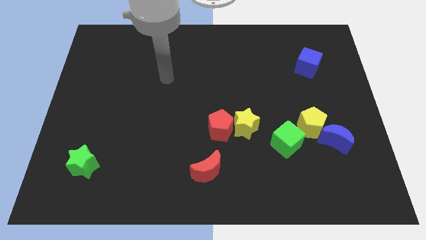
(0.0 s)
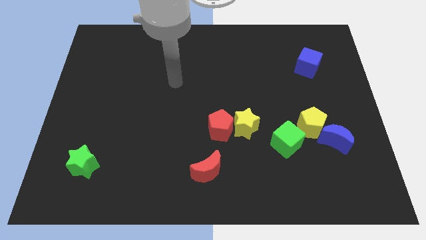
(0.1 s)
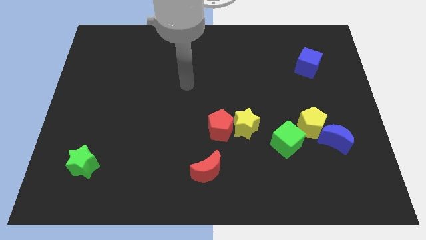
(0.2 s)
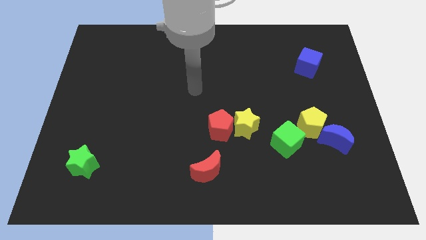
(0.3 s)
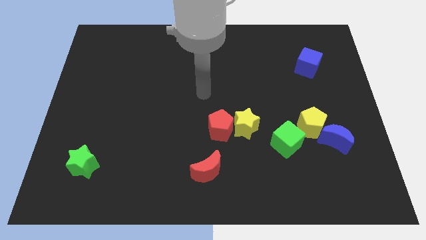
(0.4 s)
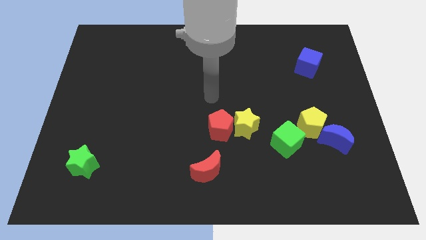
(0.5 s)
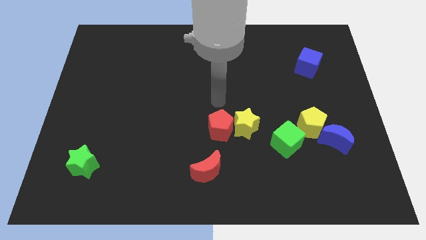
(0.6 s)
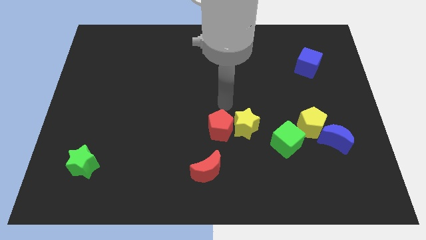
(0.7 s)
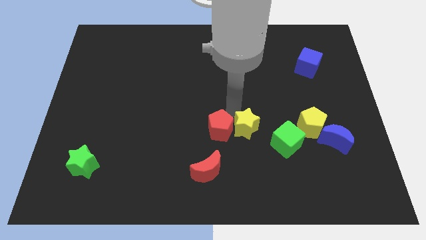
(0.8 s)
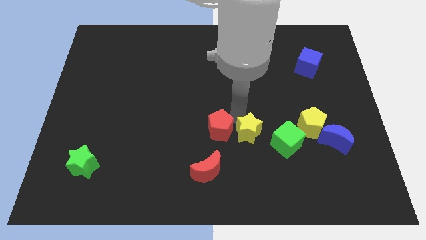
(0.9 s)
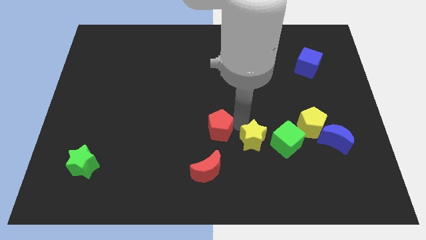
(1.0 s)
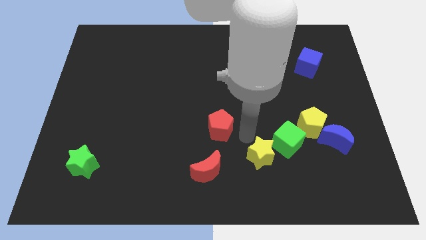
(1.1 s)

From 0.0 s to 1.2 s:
pull the red pentagon apart from the yellow star

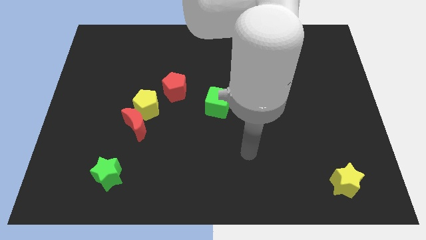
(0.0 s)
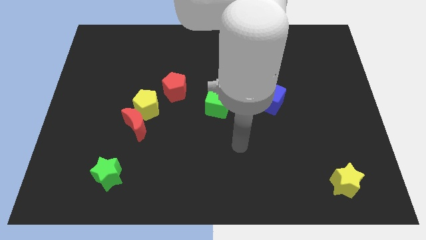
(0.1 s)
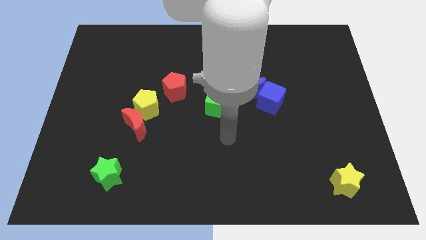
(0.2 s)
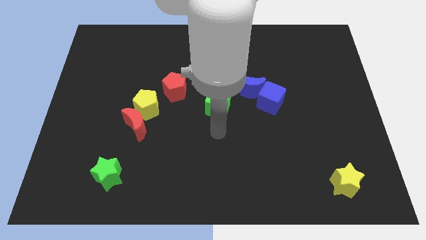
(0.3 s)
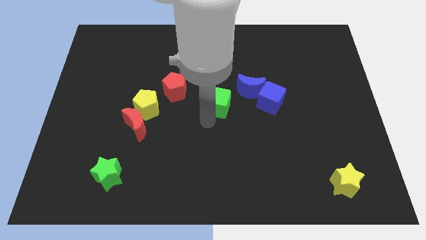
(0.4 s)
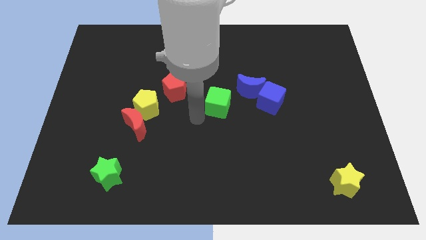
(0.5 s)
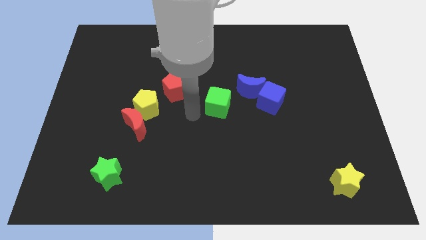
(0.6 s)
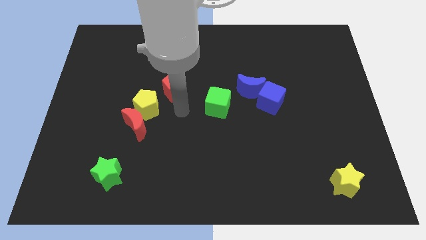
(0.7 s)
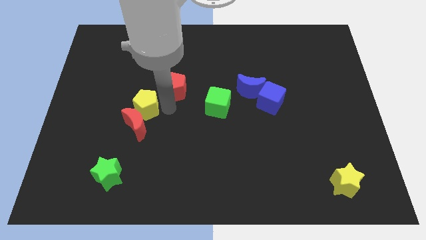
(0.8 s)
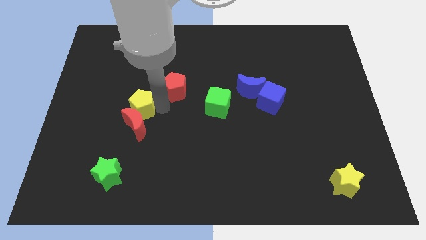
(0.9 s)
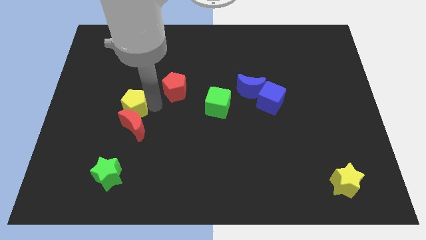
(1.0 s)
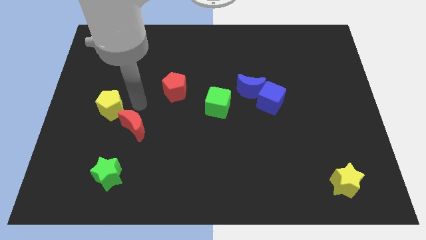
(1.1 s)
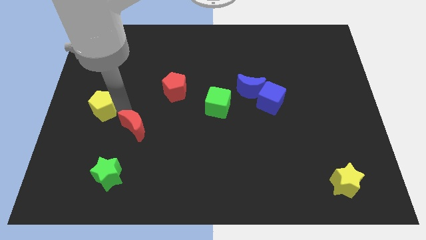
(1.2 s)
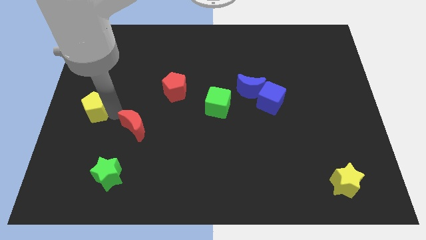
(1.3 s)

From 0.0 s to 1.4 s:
move the red moon away from the yellow pentagon

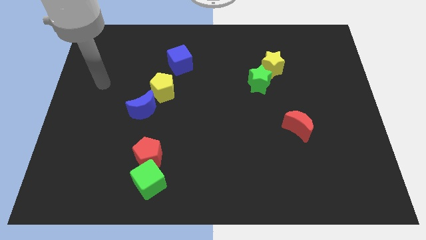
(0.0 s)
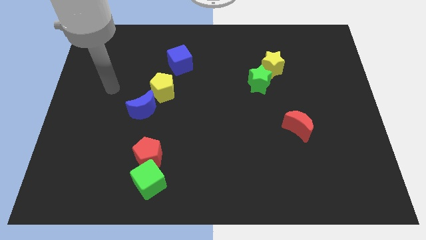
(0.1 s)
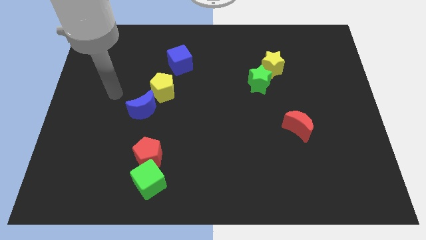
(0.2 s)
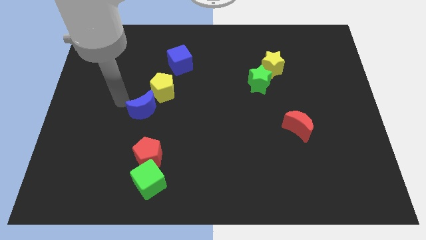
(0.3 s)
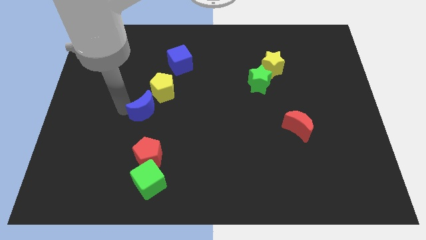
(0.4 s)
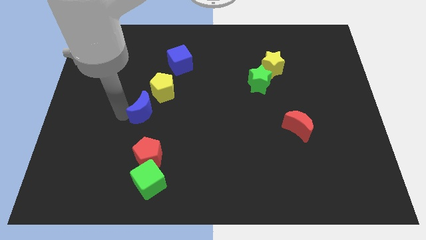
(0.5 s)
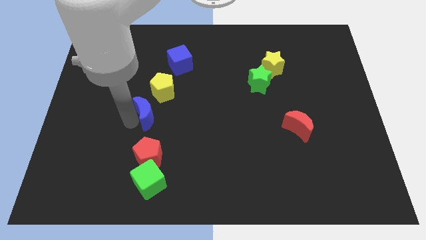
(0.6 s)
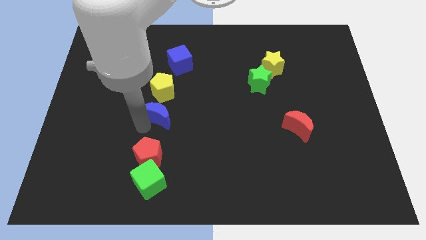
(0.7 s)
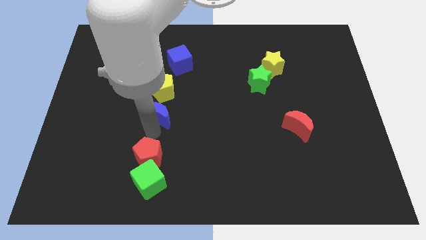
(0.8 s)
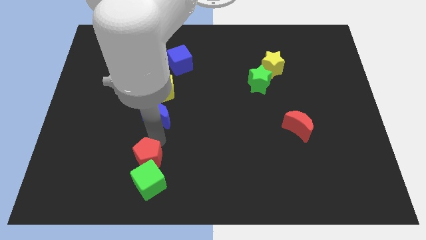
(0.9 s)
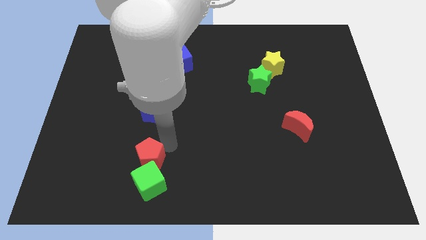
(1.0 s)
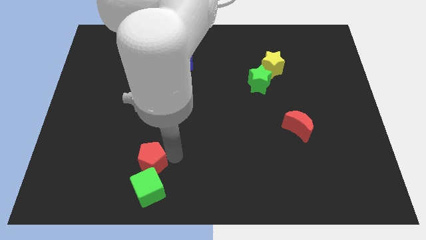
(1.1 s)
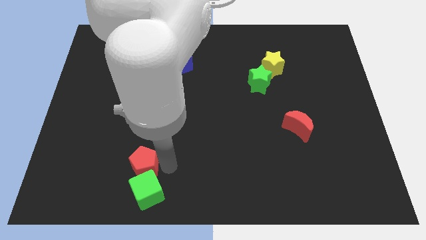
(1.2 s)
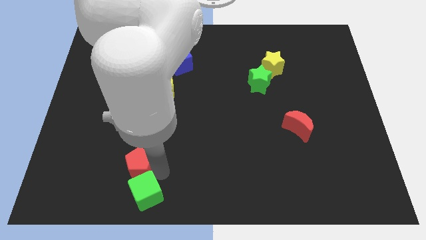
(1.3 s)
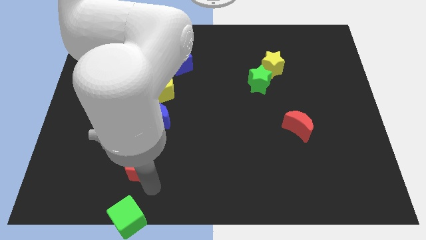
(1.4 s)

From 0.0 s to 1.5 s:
move the red pentagon away from the green cube

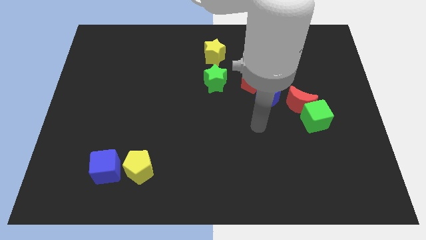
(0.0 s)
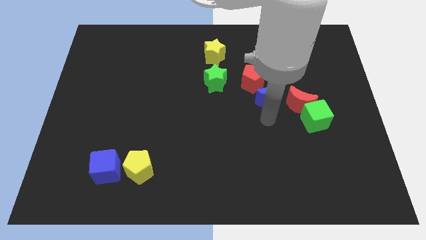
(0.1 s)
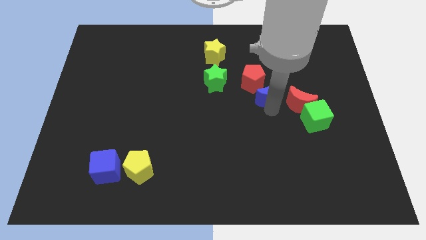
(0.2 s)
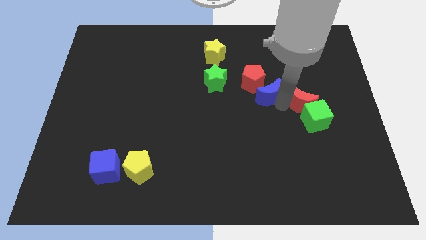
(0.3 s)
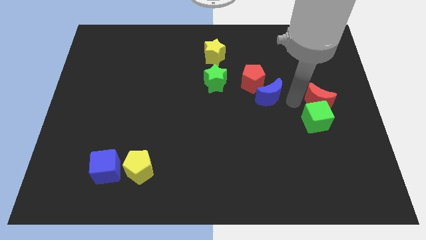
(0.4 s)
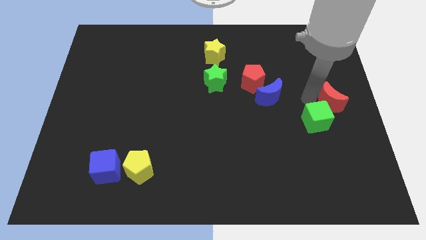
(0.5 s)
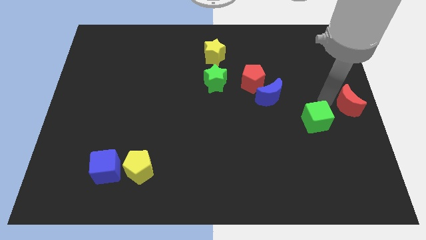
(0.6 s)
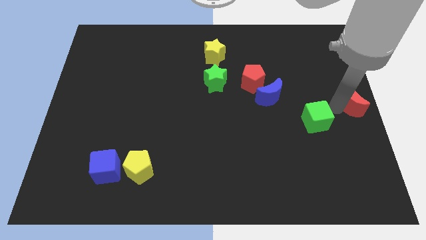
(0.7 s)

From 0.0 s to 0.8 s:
pull the green cube apart from the red moon

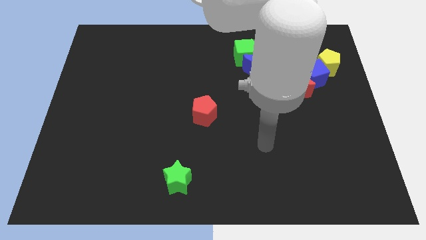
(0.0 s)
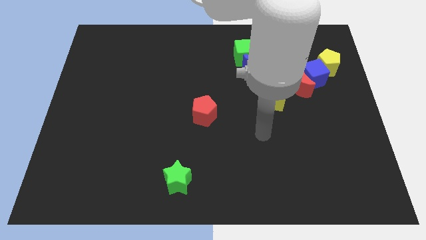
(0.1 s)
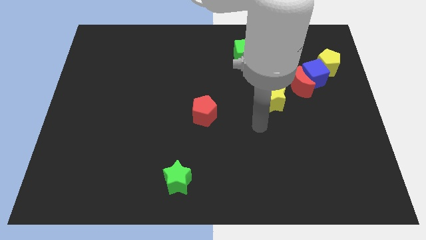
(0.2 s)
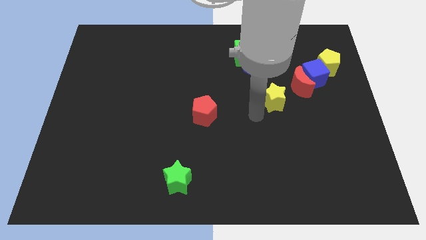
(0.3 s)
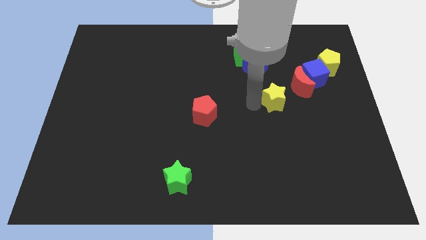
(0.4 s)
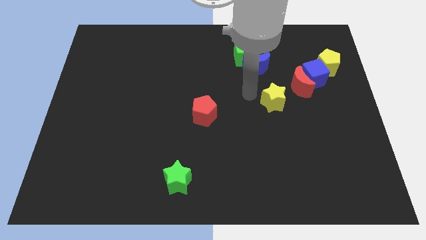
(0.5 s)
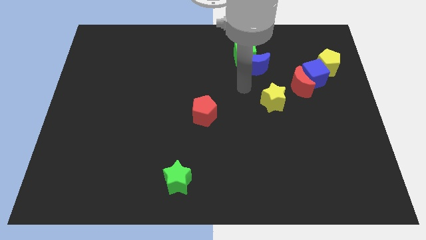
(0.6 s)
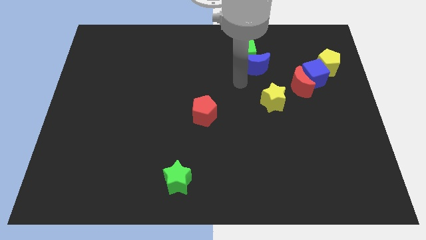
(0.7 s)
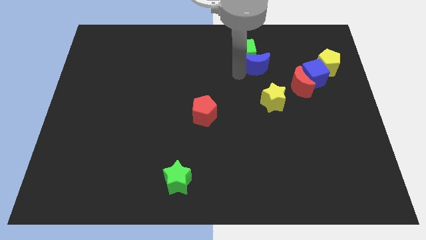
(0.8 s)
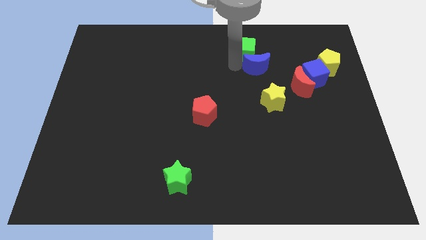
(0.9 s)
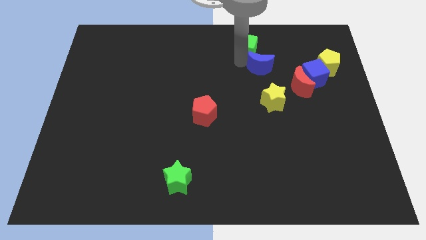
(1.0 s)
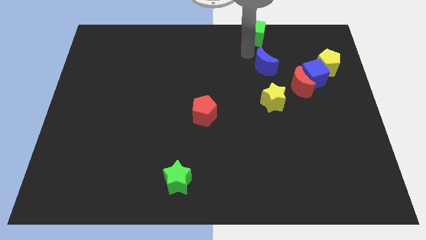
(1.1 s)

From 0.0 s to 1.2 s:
separate the blue moon from the green cube

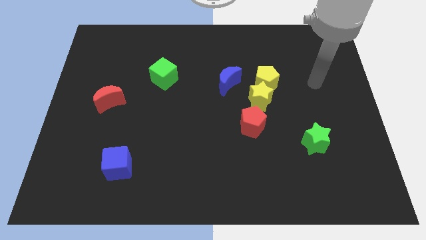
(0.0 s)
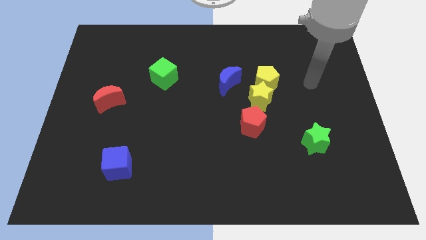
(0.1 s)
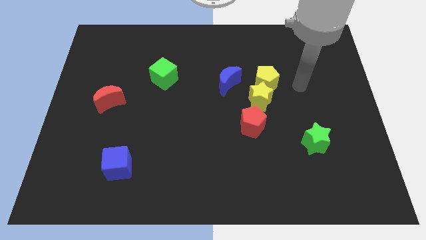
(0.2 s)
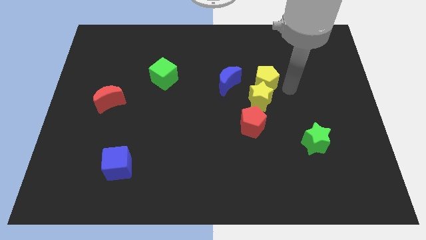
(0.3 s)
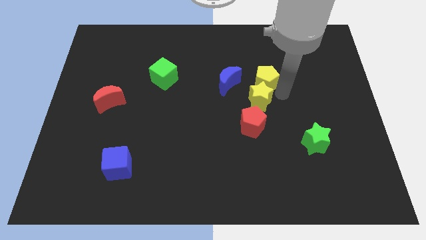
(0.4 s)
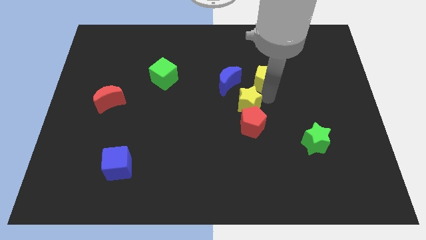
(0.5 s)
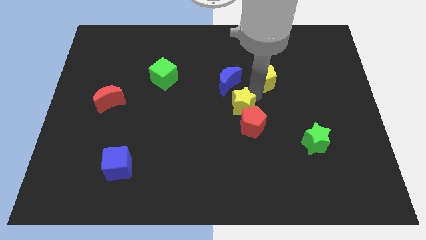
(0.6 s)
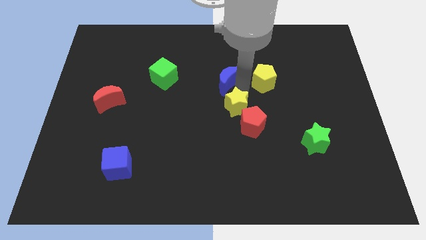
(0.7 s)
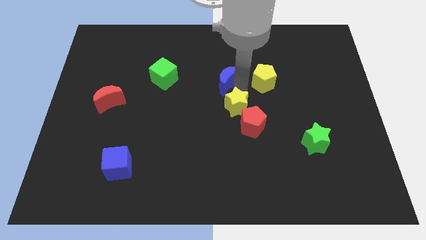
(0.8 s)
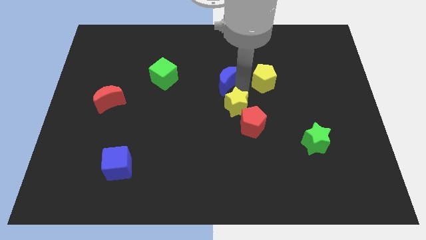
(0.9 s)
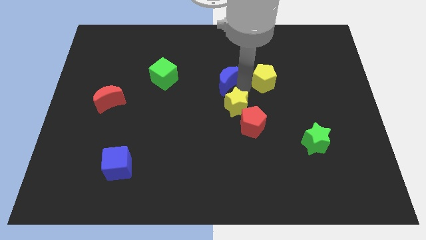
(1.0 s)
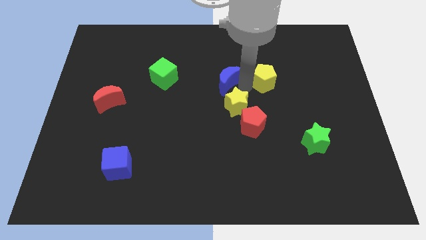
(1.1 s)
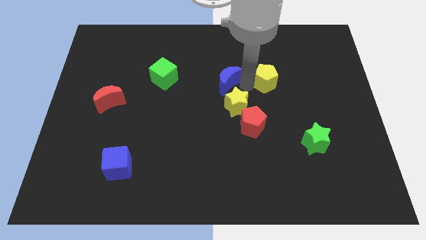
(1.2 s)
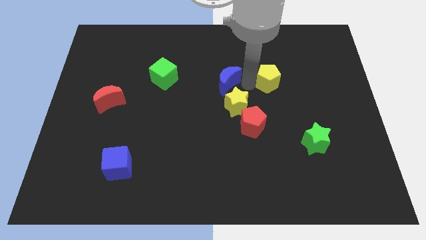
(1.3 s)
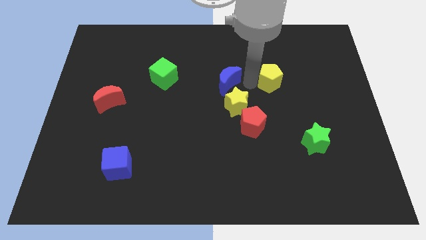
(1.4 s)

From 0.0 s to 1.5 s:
pull the yellow pentagon apart from the yellow star and blue moon

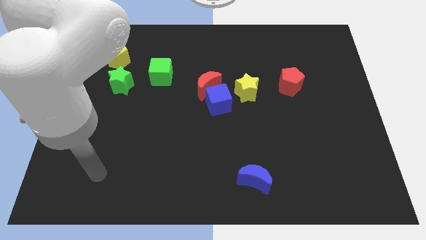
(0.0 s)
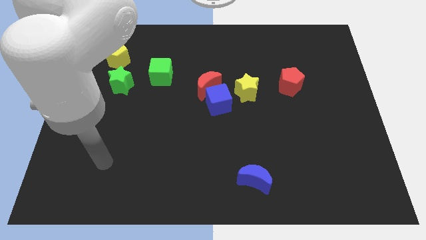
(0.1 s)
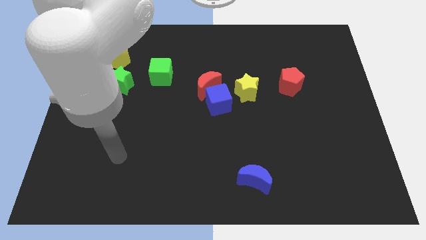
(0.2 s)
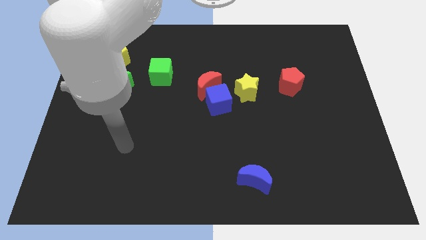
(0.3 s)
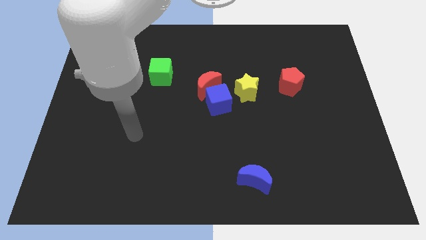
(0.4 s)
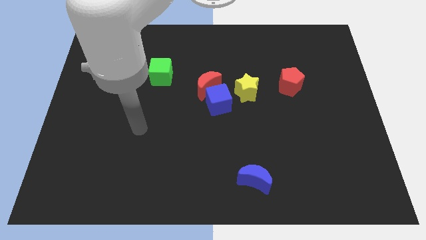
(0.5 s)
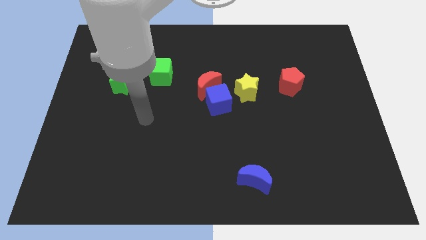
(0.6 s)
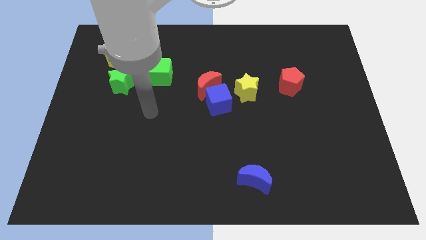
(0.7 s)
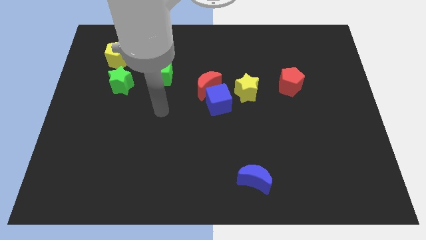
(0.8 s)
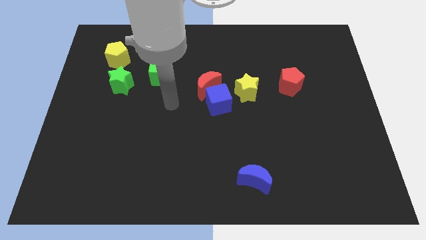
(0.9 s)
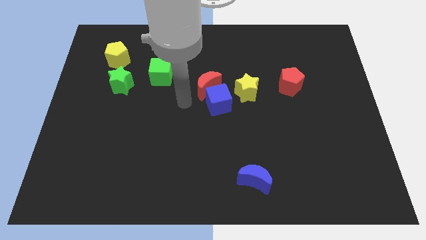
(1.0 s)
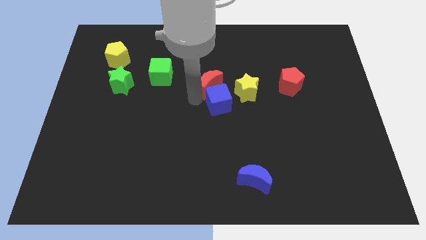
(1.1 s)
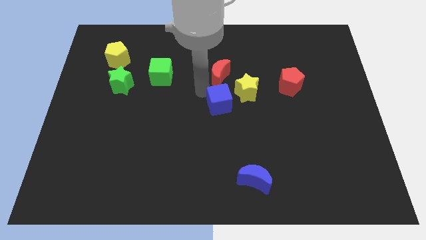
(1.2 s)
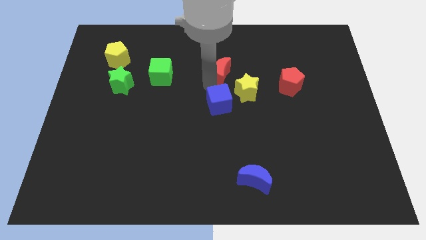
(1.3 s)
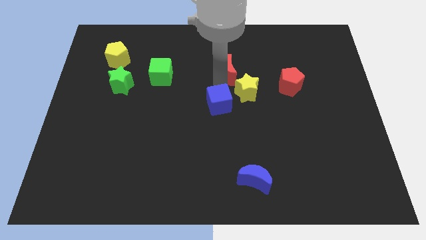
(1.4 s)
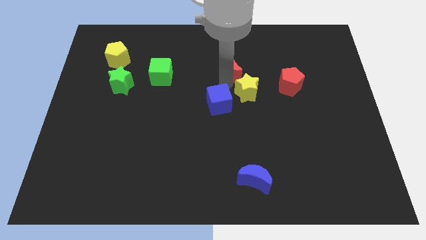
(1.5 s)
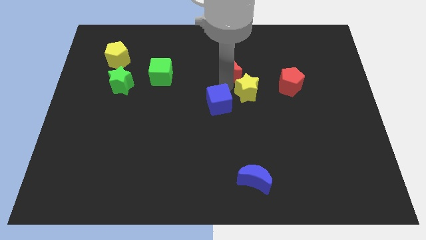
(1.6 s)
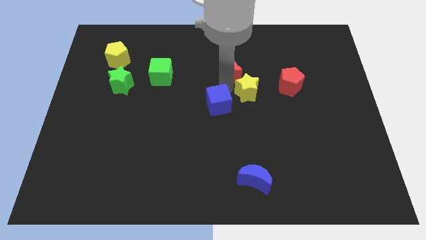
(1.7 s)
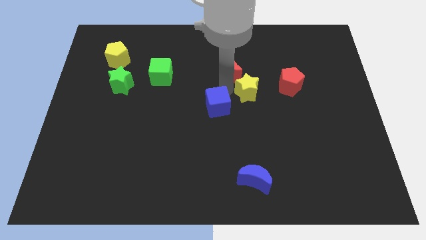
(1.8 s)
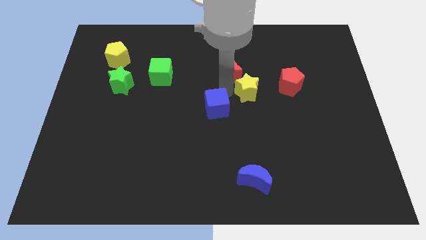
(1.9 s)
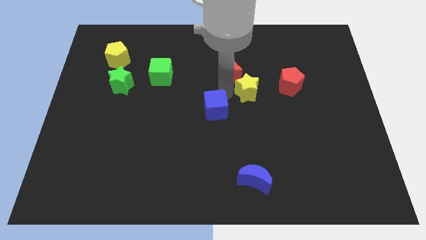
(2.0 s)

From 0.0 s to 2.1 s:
separate the blue cube from the red moon and yellow star
